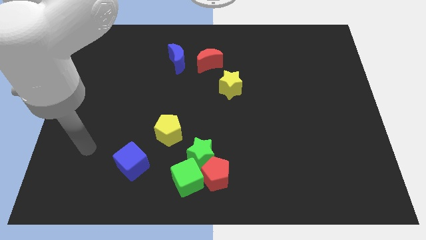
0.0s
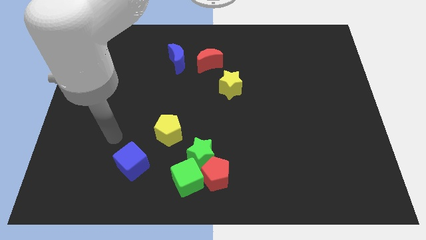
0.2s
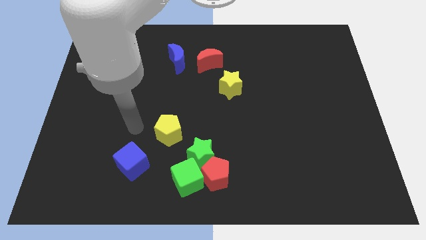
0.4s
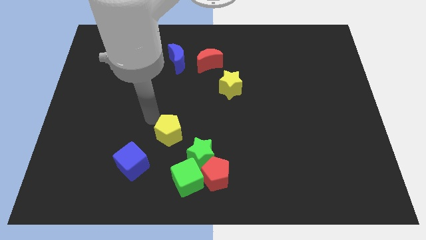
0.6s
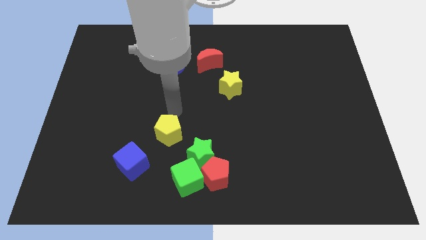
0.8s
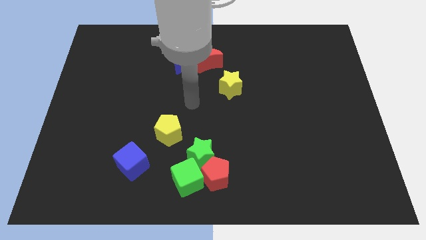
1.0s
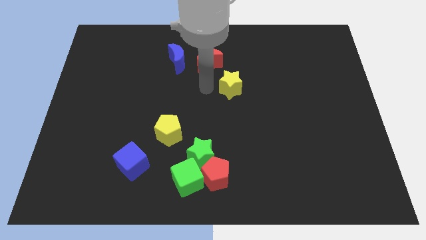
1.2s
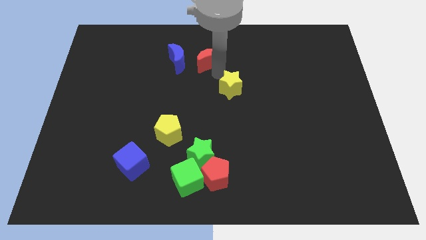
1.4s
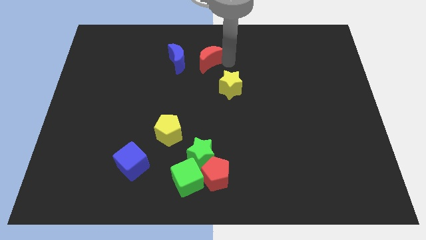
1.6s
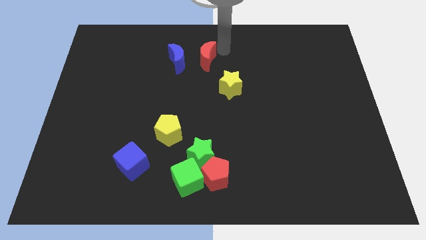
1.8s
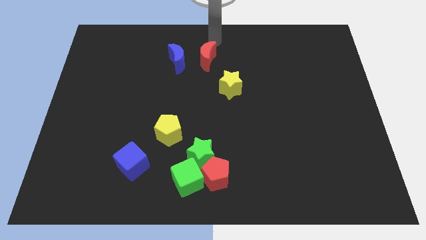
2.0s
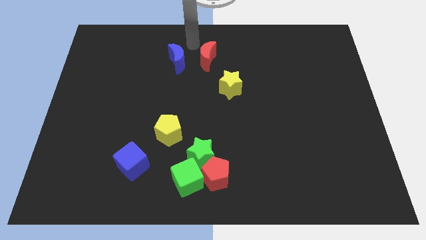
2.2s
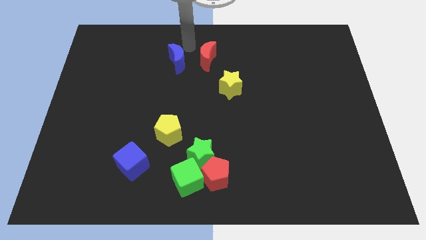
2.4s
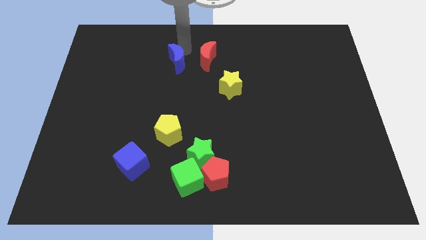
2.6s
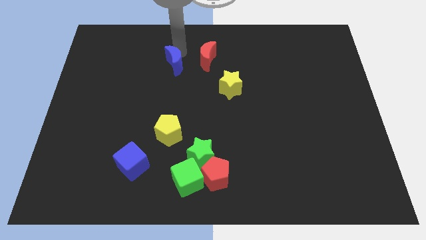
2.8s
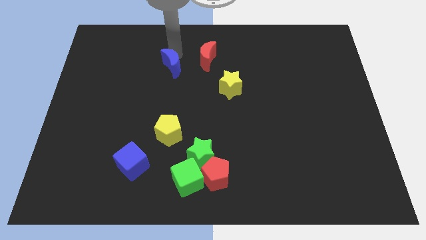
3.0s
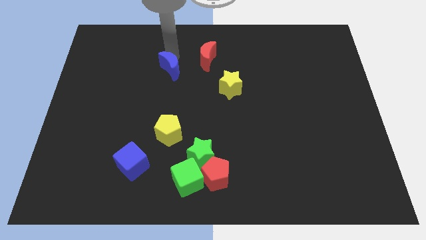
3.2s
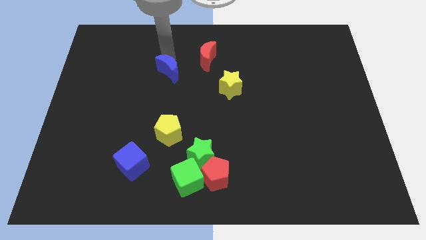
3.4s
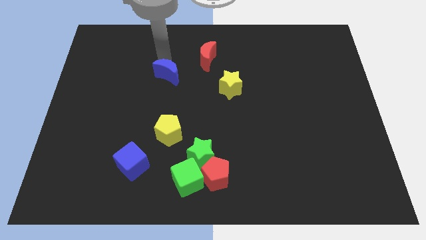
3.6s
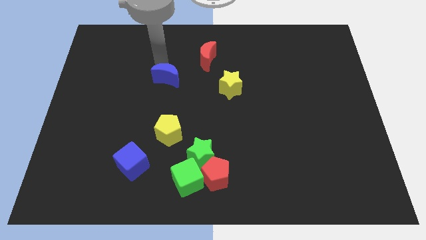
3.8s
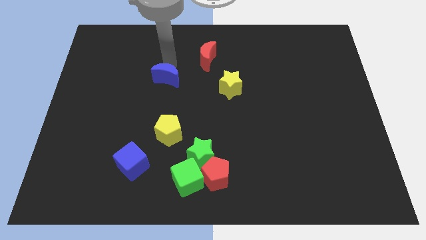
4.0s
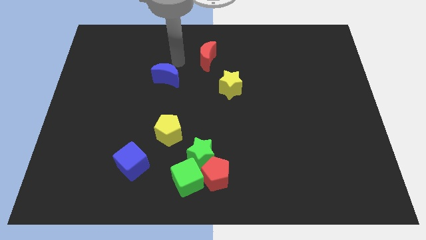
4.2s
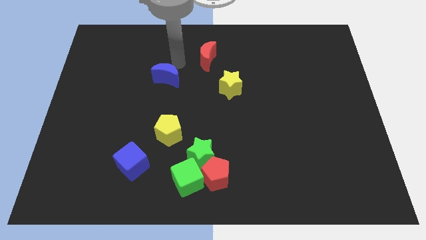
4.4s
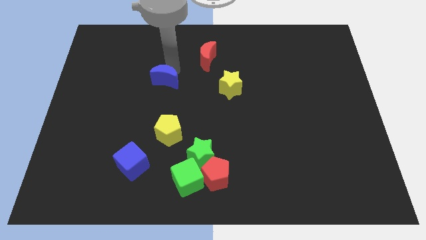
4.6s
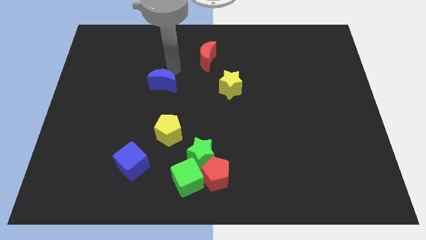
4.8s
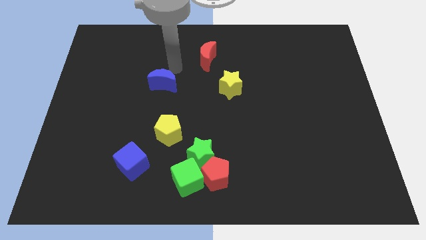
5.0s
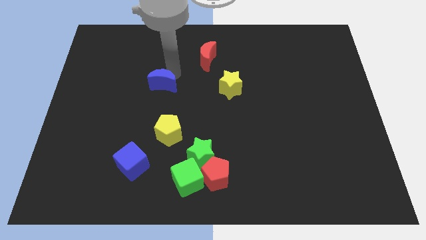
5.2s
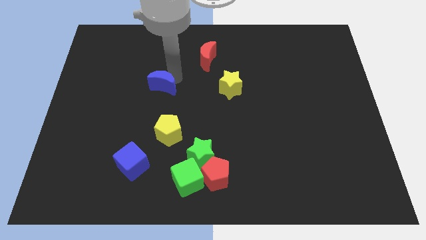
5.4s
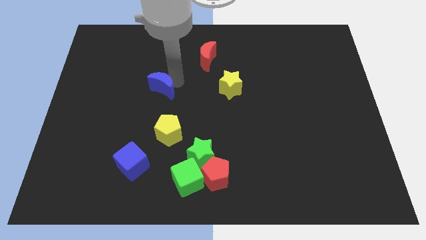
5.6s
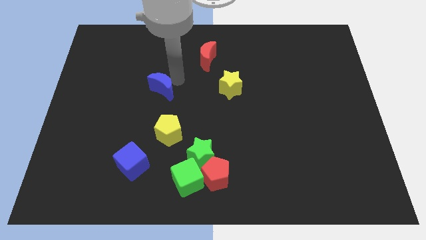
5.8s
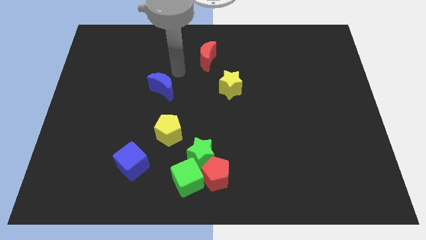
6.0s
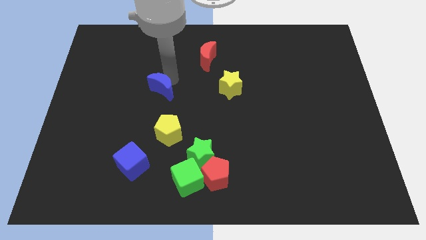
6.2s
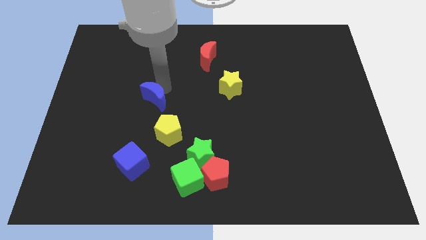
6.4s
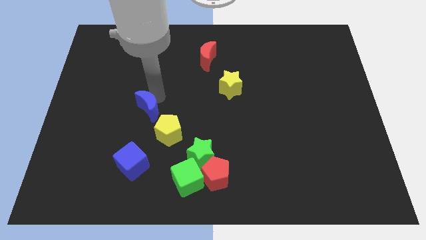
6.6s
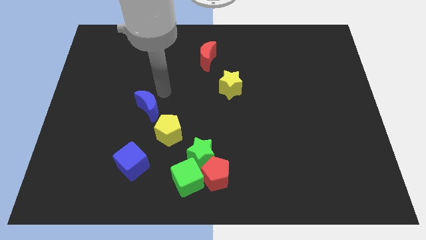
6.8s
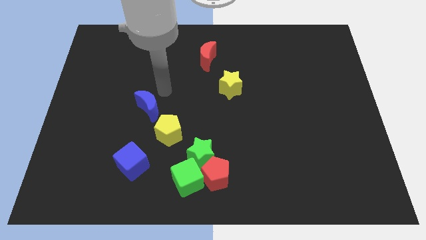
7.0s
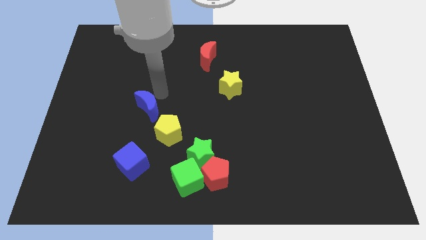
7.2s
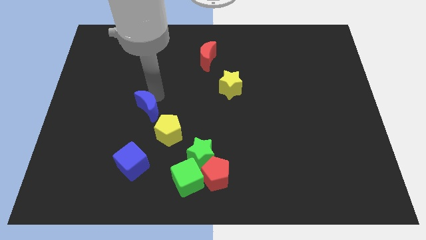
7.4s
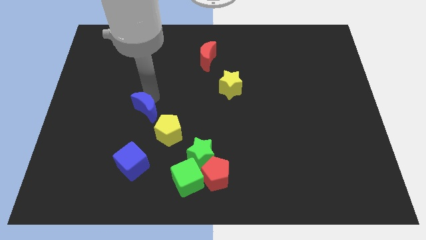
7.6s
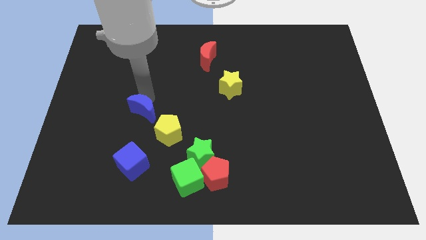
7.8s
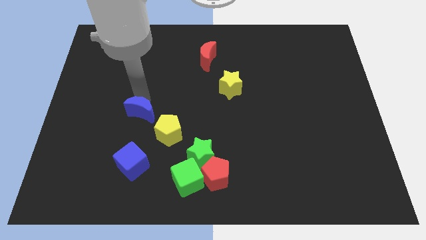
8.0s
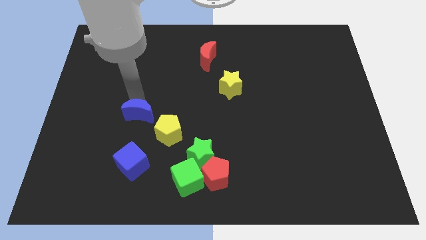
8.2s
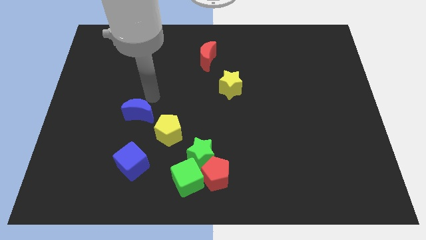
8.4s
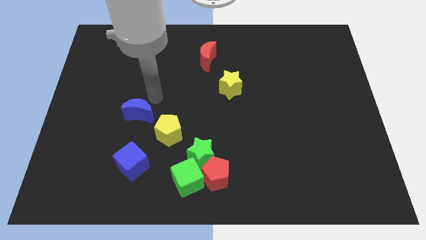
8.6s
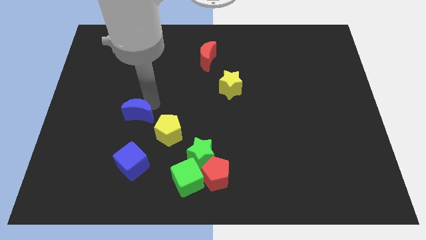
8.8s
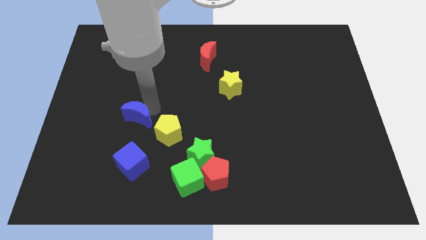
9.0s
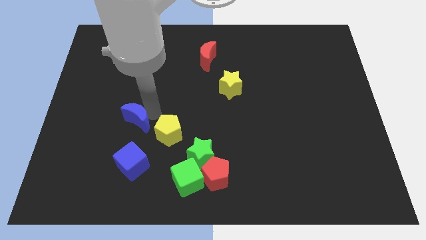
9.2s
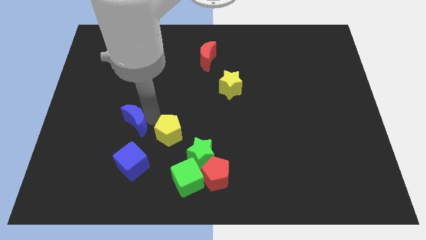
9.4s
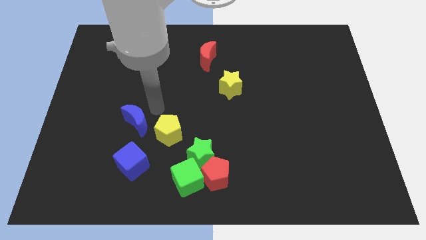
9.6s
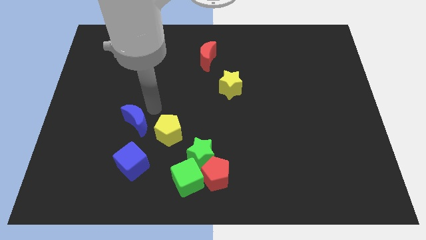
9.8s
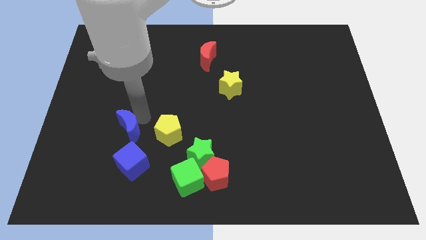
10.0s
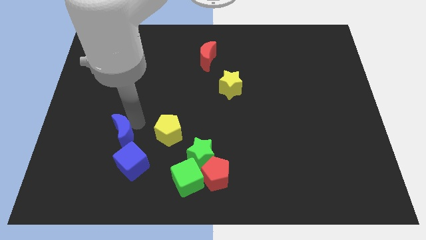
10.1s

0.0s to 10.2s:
put the blue moon to the top left side of the blue cube

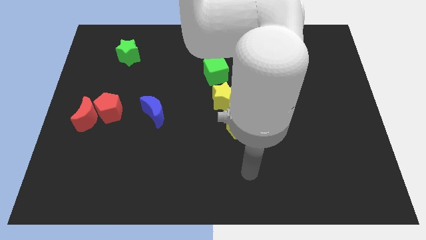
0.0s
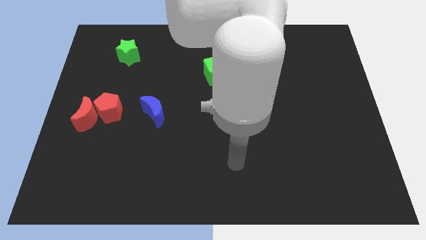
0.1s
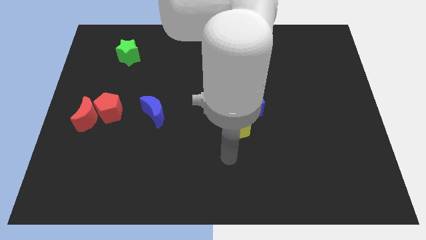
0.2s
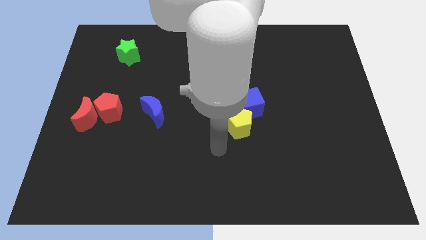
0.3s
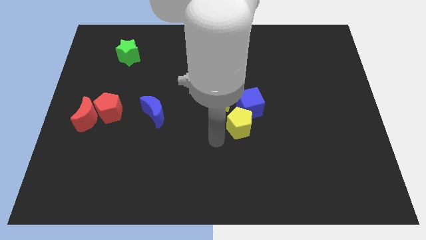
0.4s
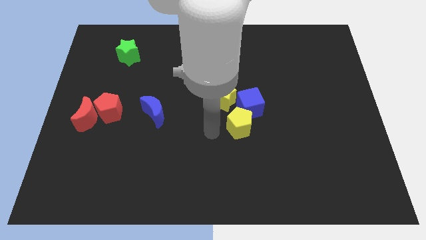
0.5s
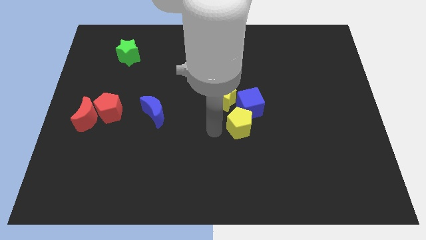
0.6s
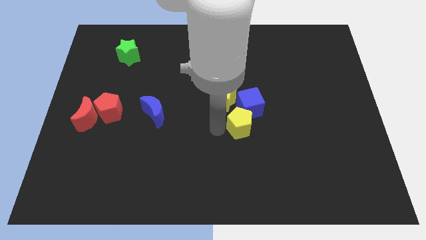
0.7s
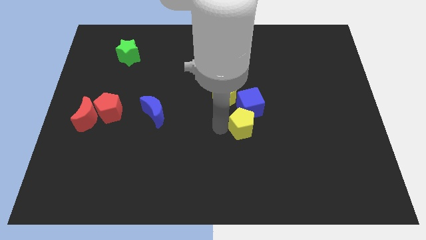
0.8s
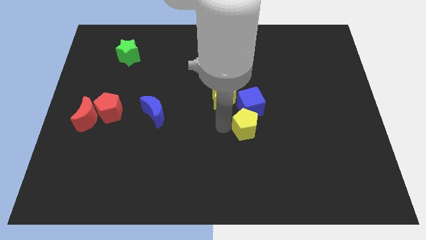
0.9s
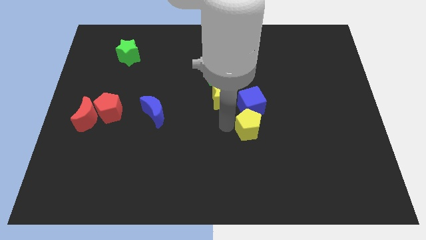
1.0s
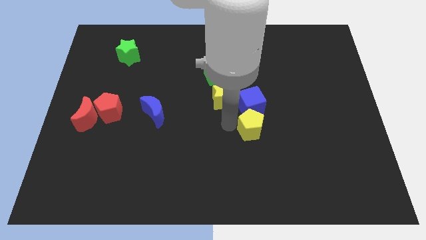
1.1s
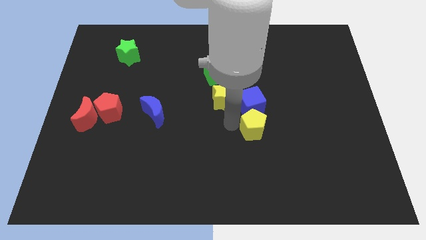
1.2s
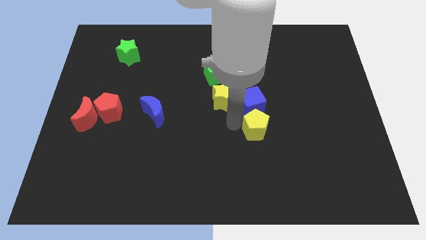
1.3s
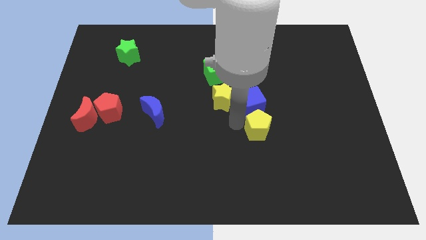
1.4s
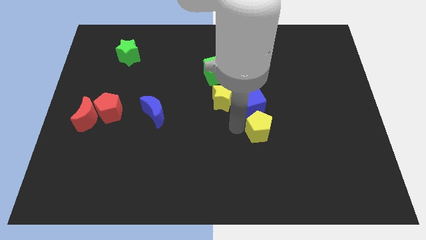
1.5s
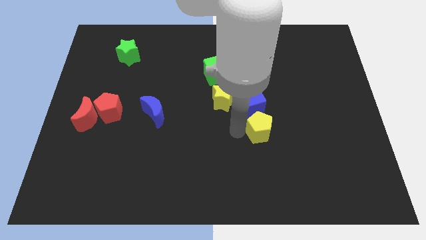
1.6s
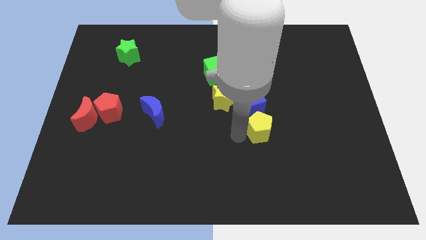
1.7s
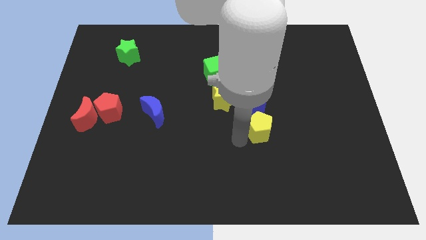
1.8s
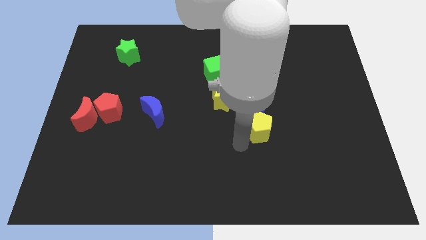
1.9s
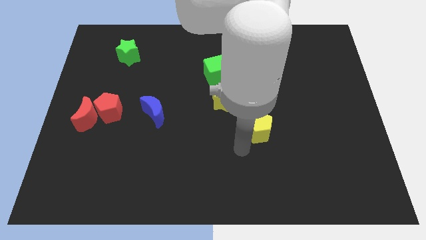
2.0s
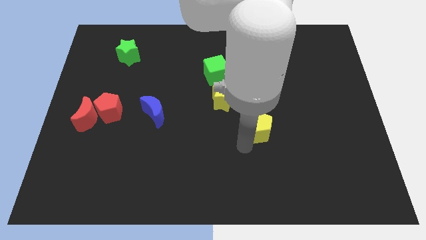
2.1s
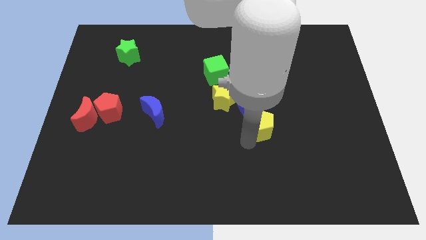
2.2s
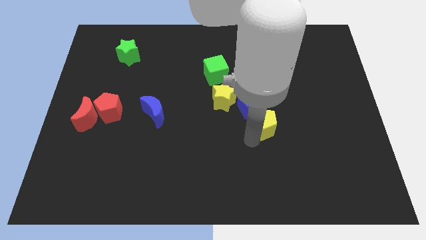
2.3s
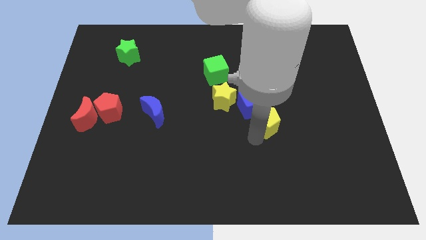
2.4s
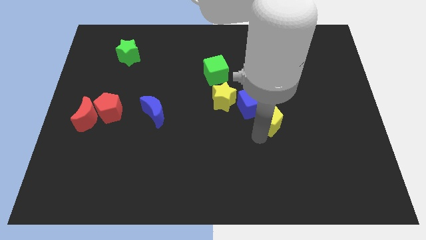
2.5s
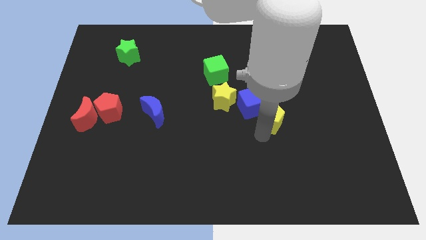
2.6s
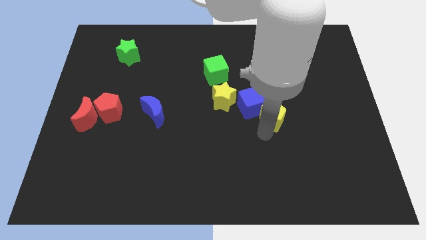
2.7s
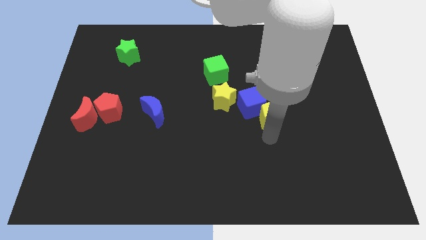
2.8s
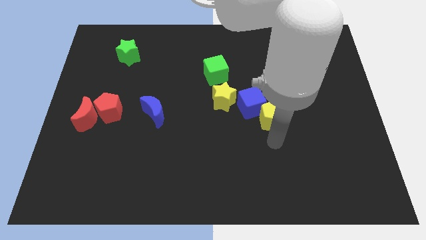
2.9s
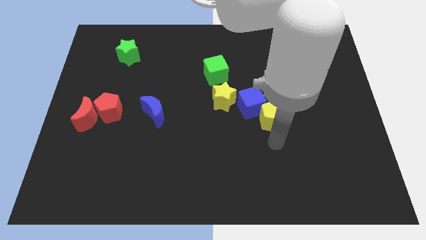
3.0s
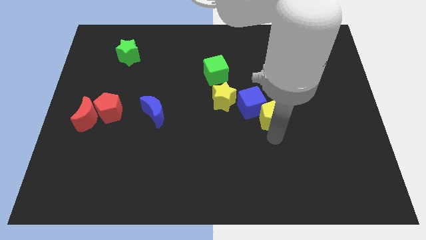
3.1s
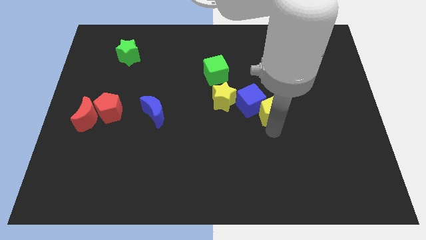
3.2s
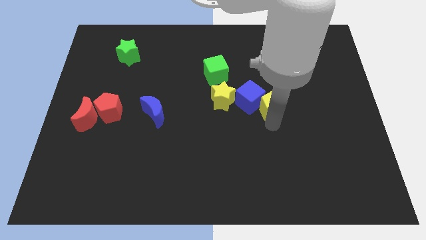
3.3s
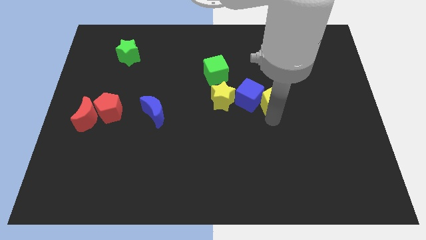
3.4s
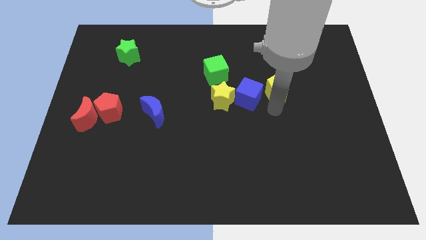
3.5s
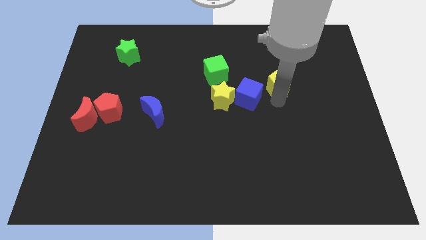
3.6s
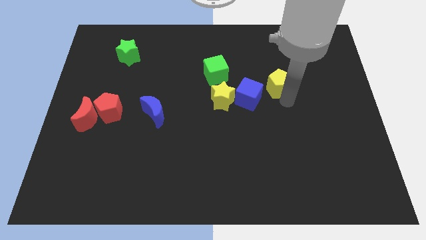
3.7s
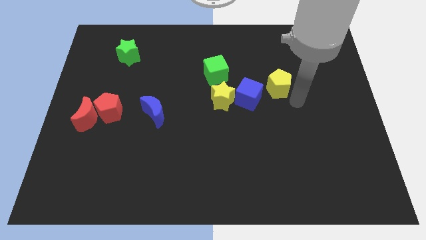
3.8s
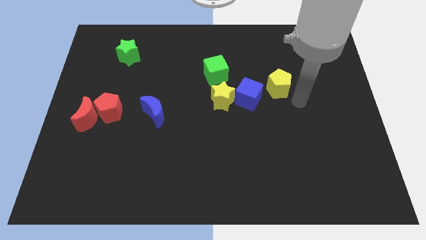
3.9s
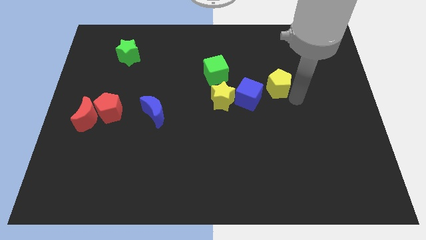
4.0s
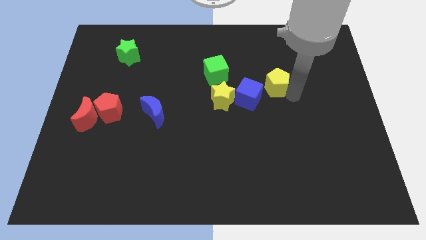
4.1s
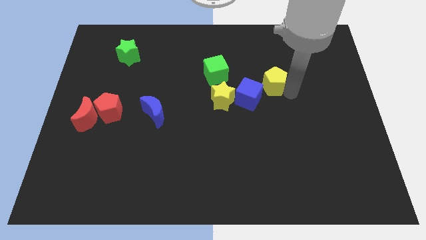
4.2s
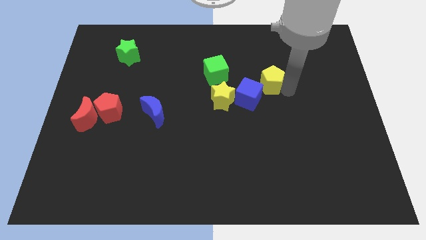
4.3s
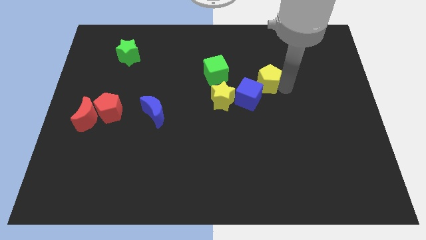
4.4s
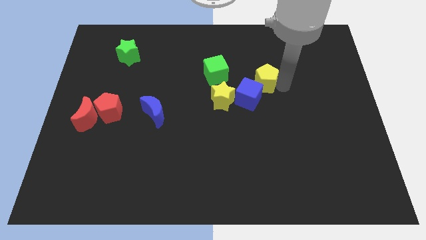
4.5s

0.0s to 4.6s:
move the yellow pentagon to the top side of the blue cube
